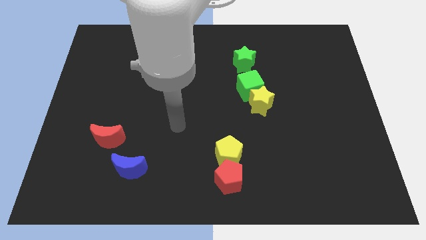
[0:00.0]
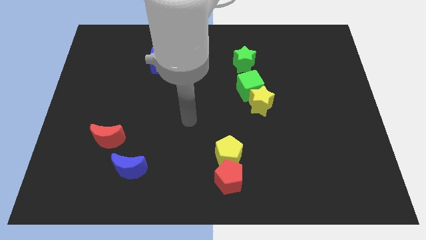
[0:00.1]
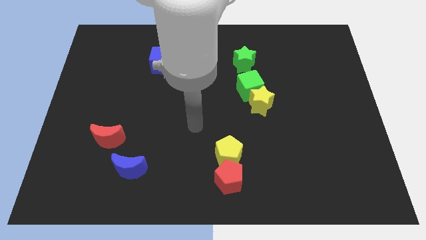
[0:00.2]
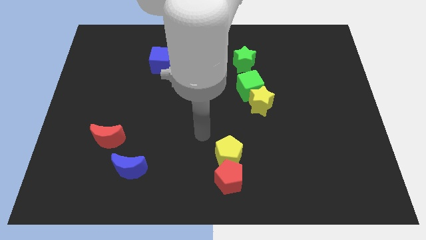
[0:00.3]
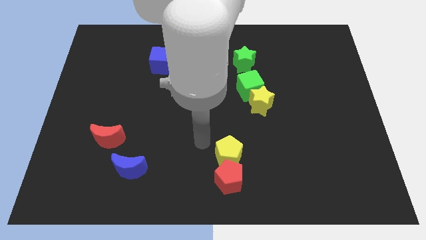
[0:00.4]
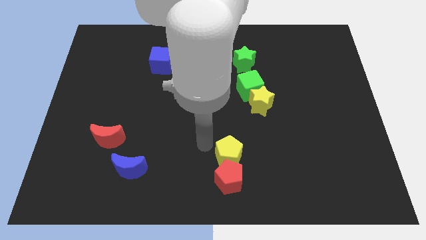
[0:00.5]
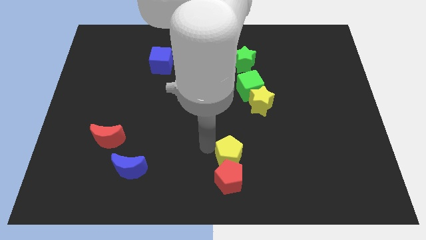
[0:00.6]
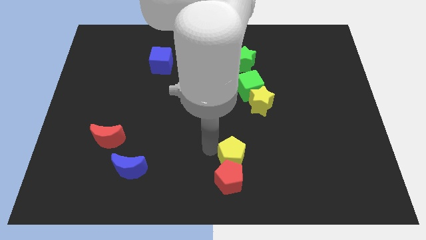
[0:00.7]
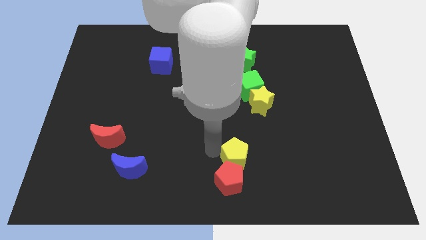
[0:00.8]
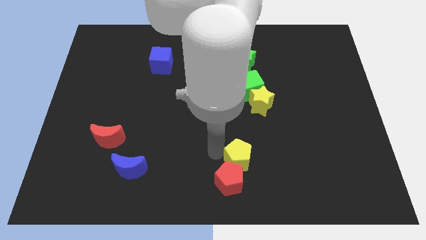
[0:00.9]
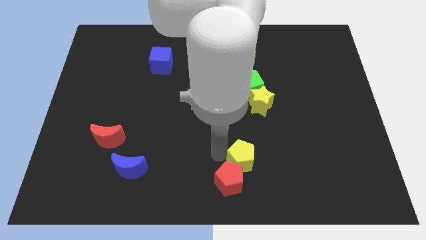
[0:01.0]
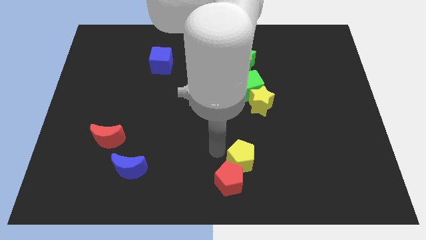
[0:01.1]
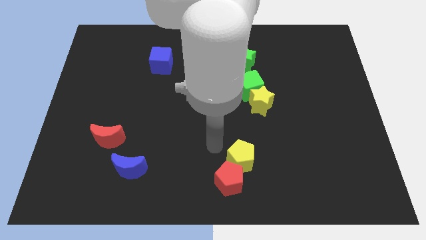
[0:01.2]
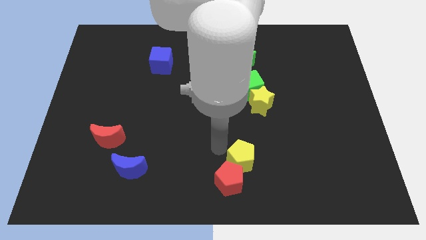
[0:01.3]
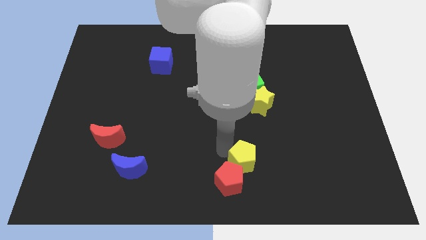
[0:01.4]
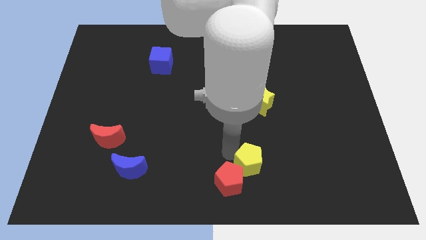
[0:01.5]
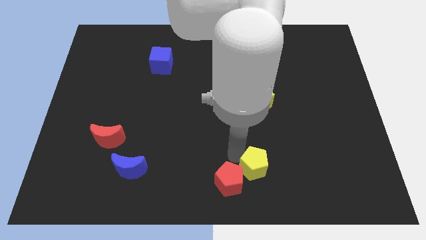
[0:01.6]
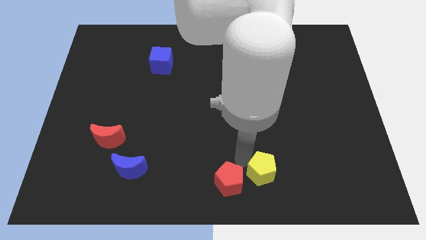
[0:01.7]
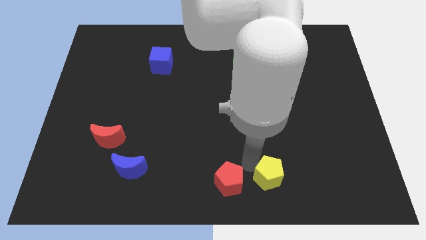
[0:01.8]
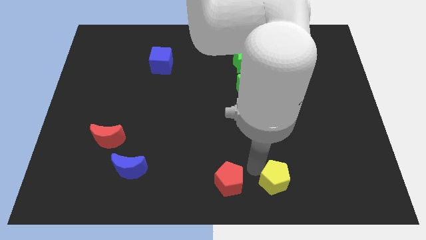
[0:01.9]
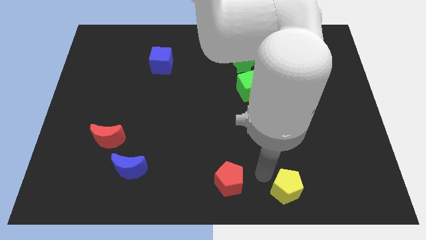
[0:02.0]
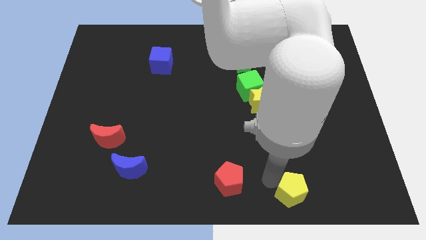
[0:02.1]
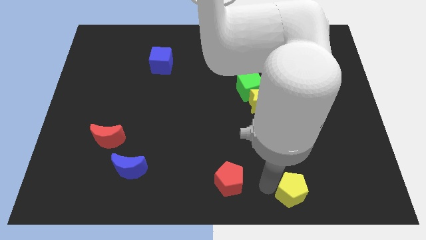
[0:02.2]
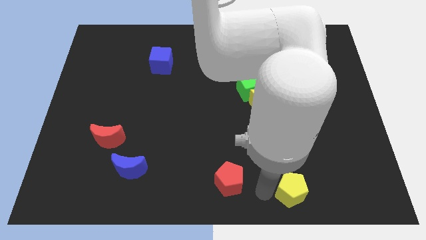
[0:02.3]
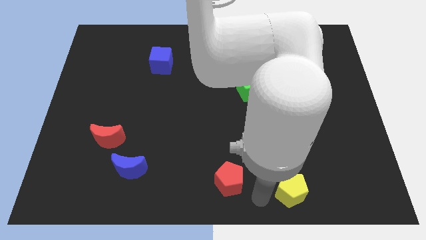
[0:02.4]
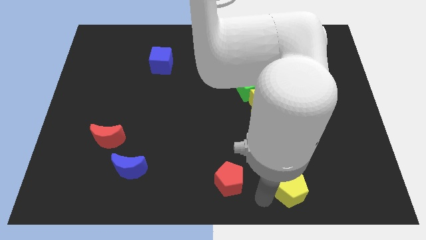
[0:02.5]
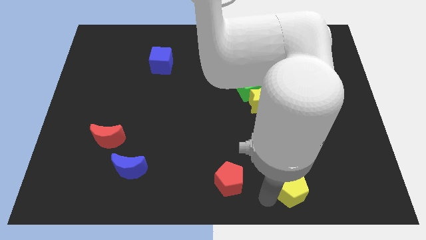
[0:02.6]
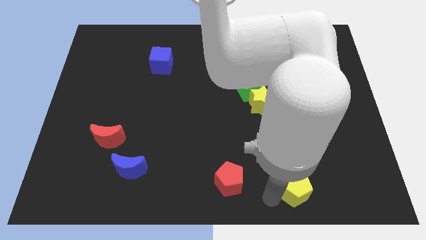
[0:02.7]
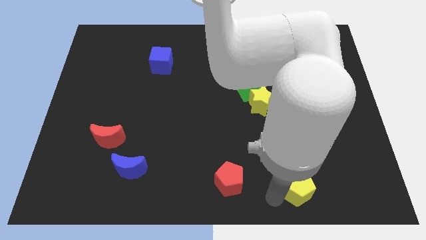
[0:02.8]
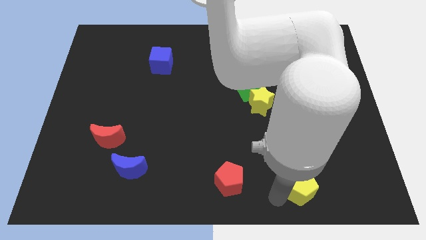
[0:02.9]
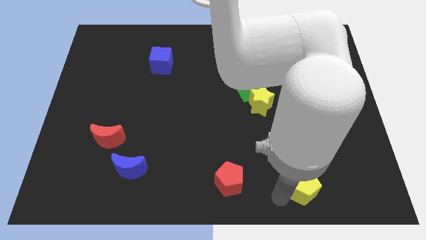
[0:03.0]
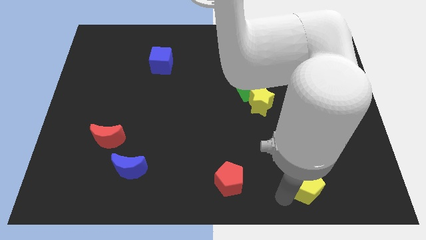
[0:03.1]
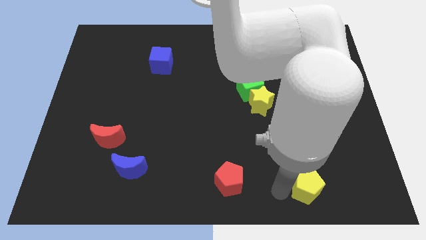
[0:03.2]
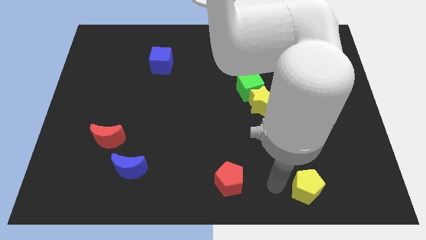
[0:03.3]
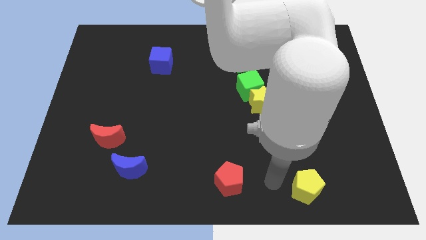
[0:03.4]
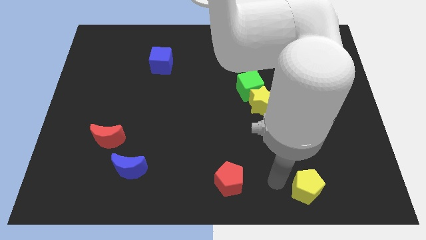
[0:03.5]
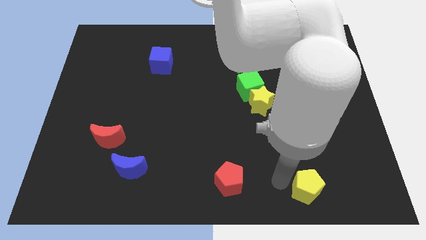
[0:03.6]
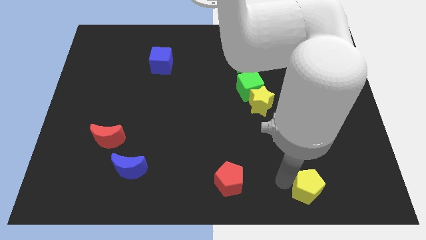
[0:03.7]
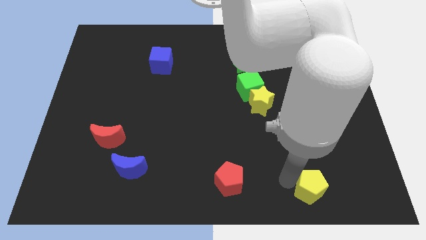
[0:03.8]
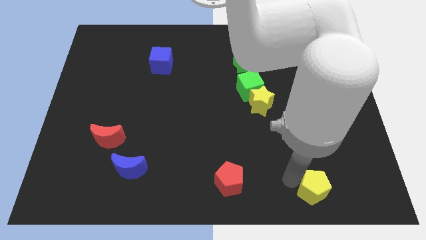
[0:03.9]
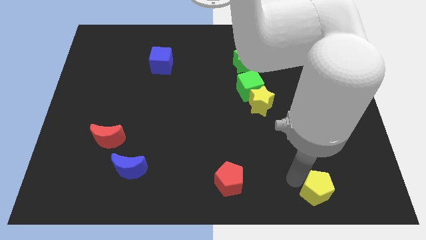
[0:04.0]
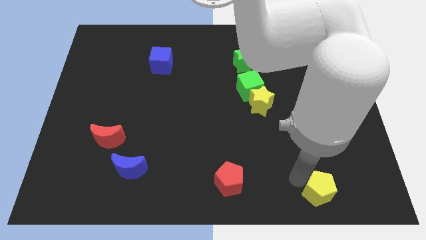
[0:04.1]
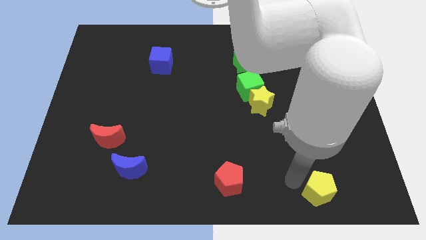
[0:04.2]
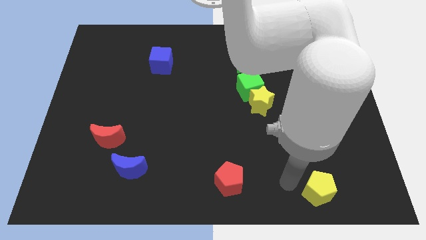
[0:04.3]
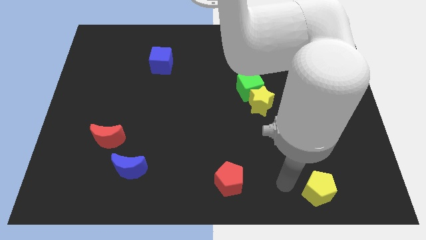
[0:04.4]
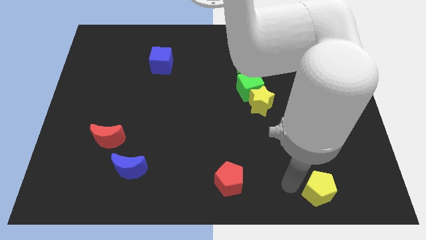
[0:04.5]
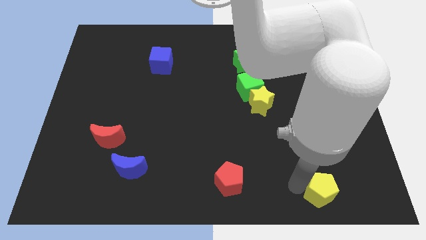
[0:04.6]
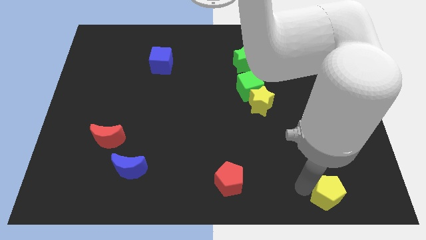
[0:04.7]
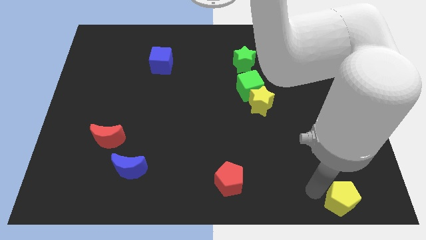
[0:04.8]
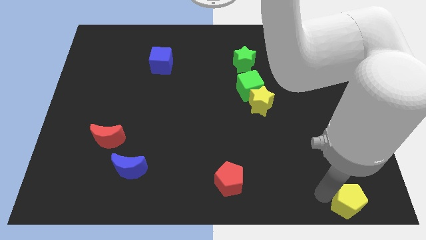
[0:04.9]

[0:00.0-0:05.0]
slide the yellow pentagon to the bottom right

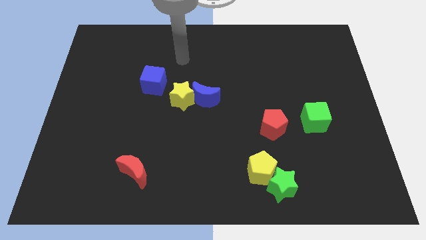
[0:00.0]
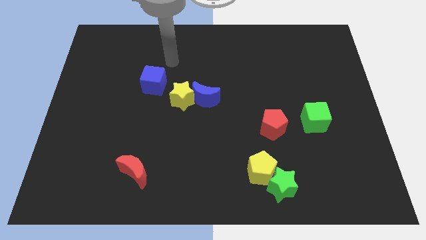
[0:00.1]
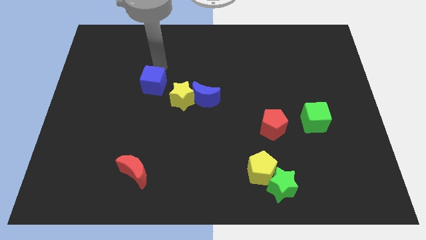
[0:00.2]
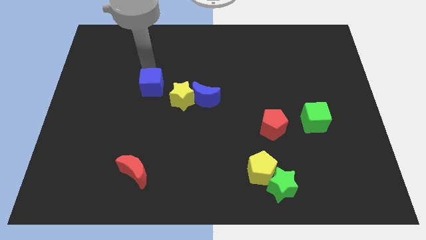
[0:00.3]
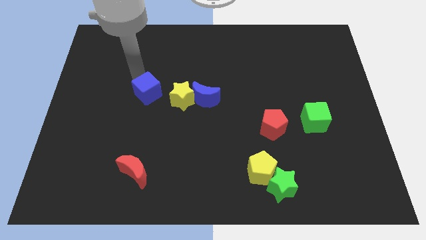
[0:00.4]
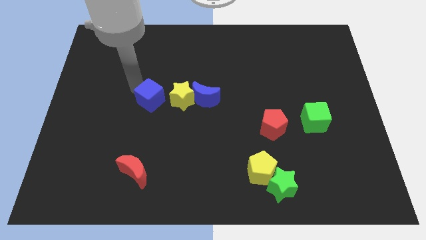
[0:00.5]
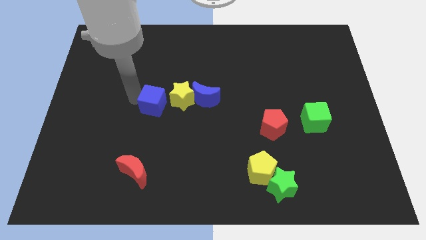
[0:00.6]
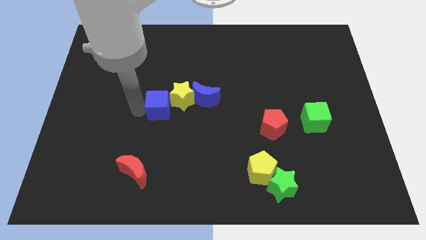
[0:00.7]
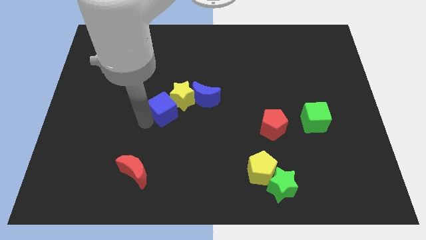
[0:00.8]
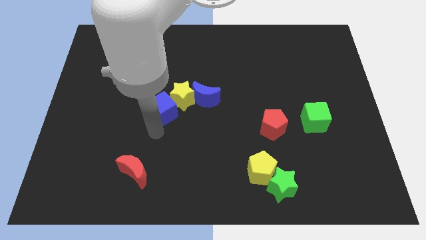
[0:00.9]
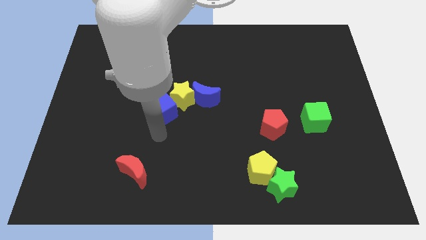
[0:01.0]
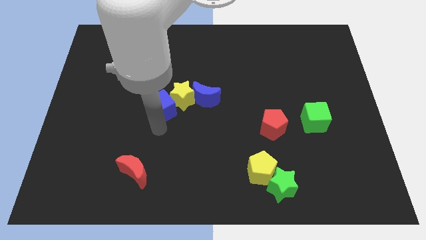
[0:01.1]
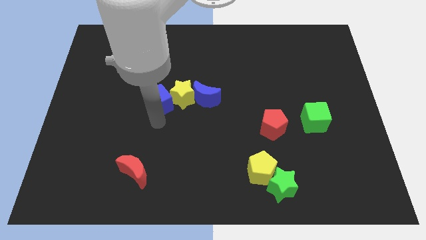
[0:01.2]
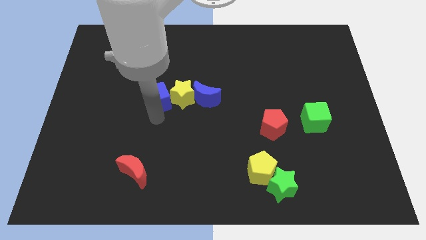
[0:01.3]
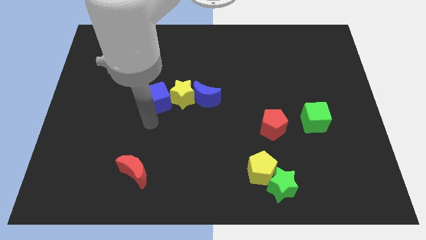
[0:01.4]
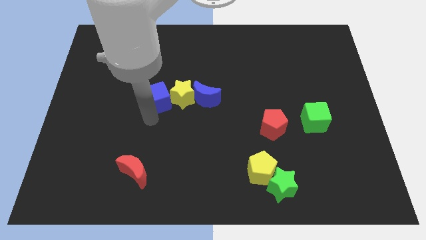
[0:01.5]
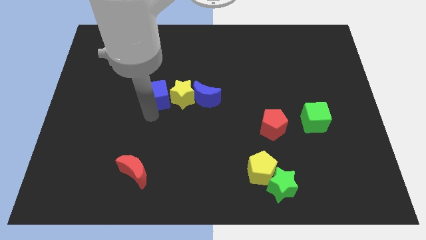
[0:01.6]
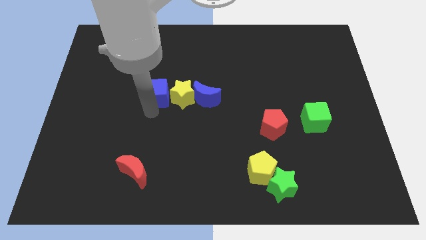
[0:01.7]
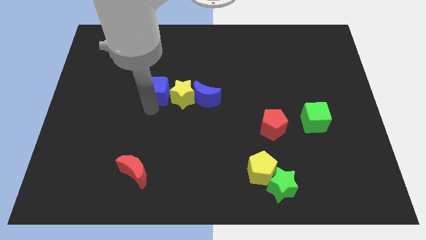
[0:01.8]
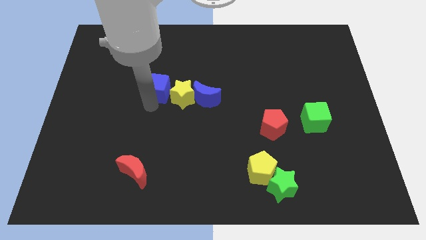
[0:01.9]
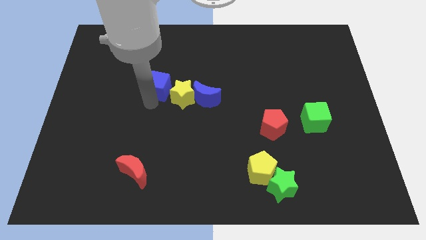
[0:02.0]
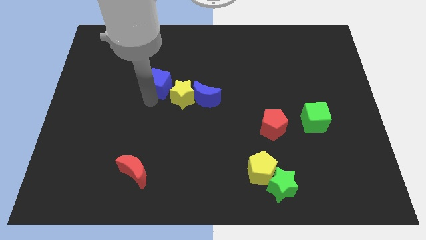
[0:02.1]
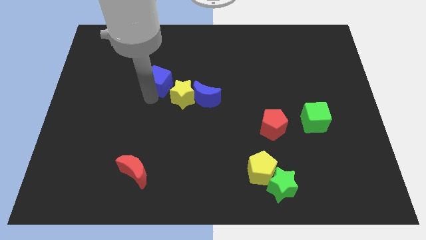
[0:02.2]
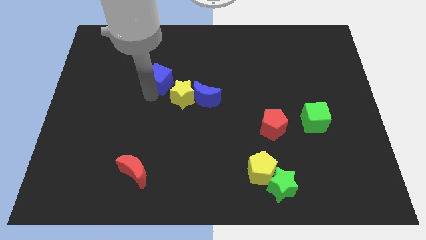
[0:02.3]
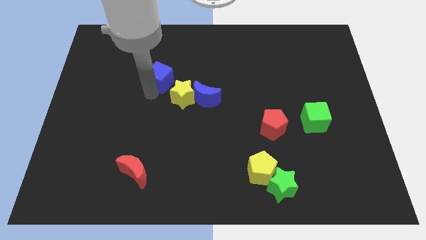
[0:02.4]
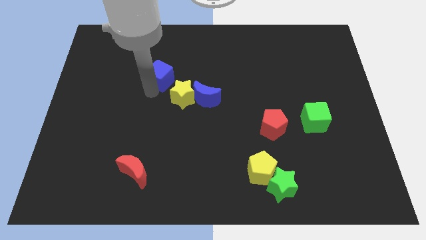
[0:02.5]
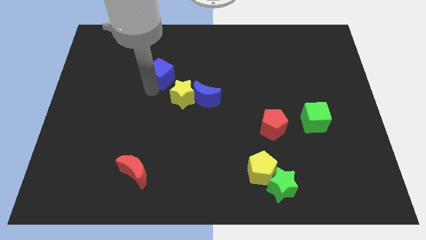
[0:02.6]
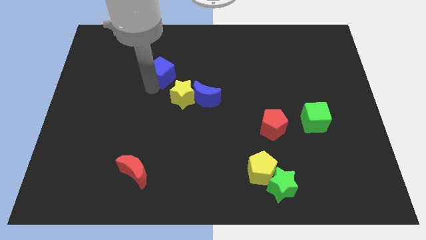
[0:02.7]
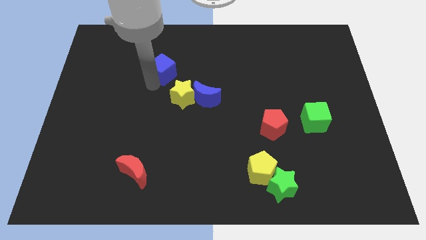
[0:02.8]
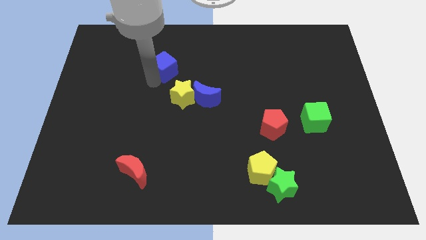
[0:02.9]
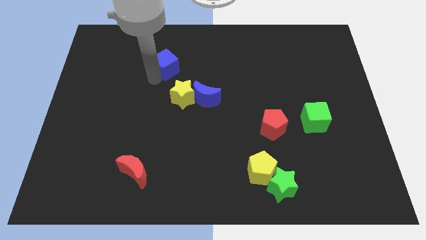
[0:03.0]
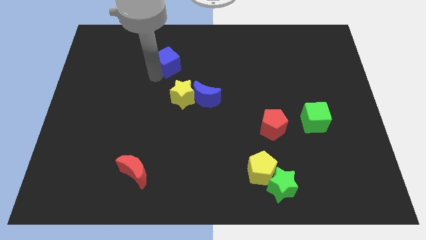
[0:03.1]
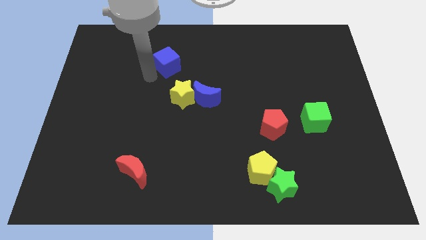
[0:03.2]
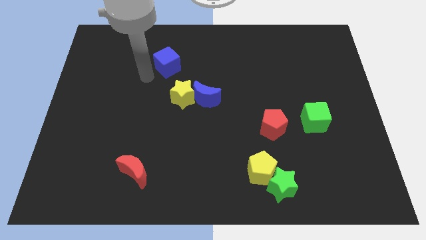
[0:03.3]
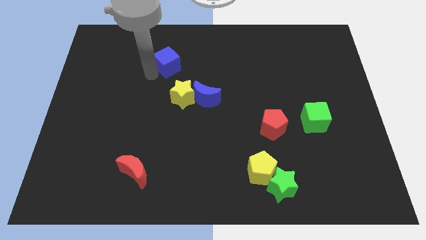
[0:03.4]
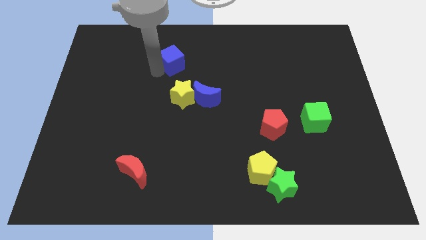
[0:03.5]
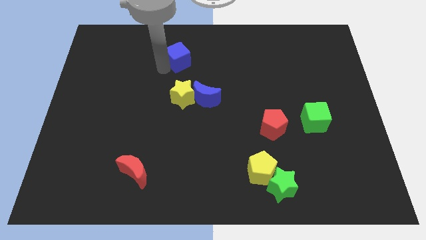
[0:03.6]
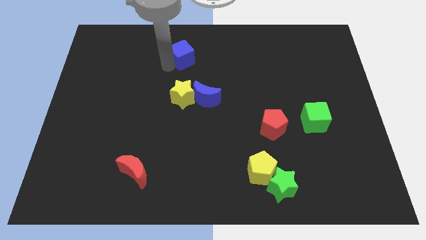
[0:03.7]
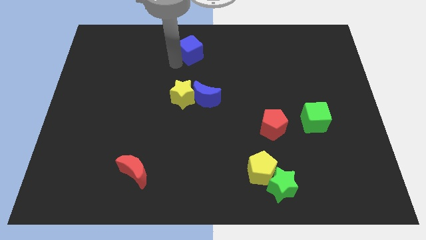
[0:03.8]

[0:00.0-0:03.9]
move the blue cube to the top

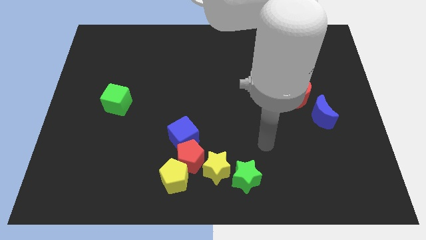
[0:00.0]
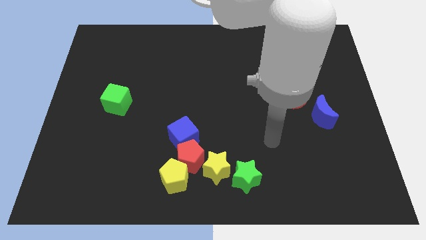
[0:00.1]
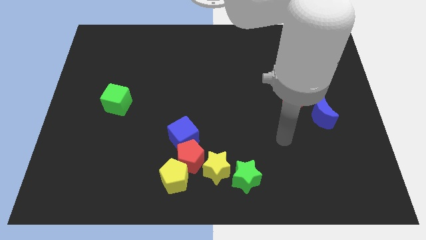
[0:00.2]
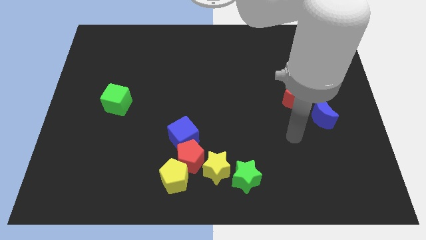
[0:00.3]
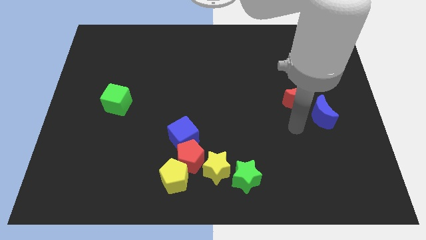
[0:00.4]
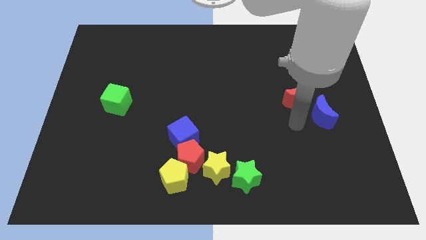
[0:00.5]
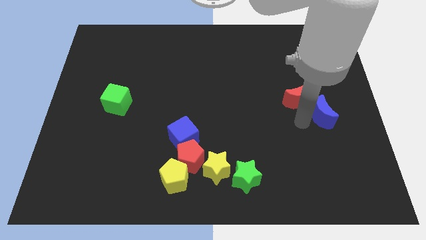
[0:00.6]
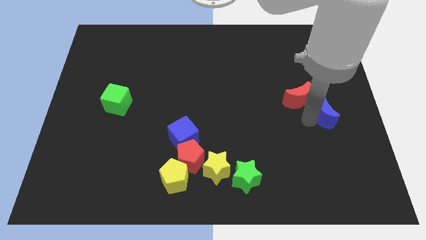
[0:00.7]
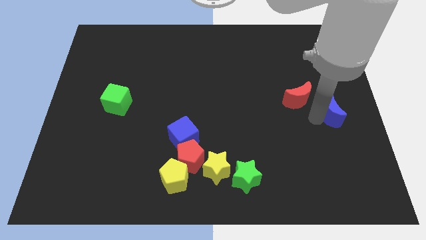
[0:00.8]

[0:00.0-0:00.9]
put the blue moon to the right side
